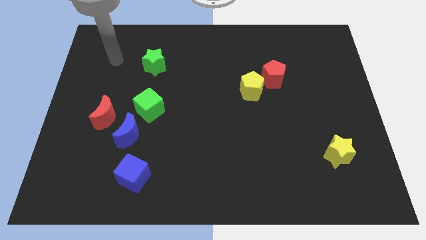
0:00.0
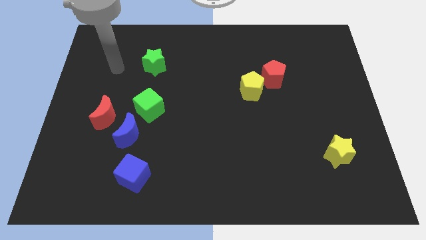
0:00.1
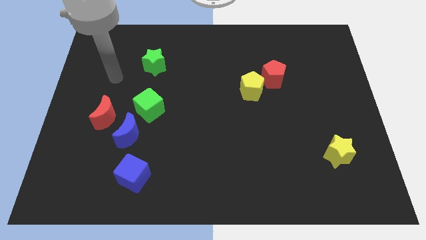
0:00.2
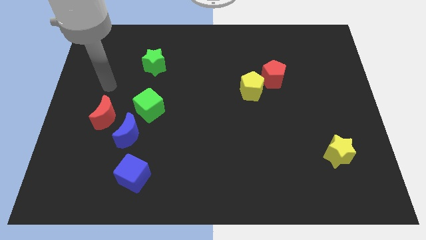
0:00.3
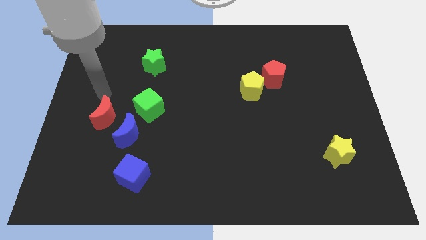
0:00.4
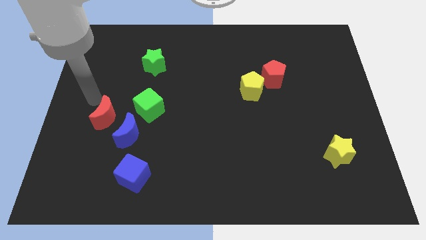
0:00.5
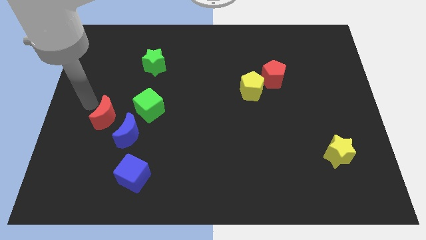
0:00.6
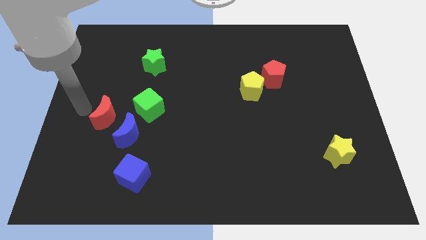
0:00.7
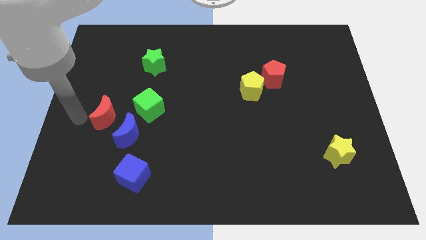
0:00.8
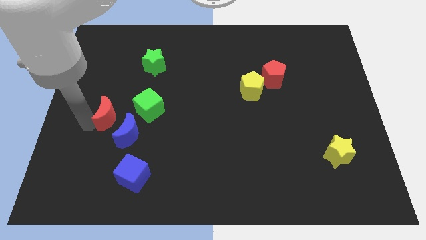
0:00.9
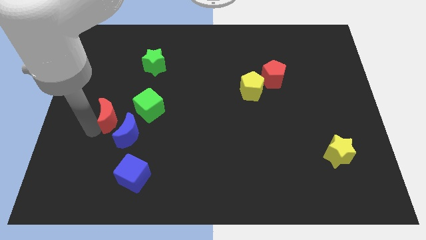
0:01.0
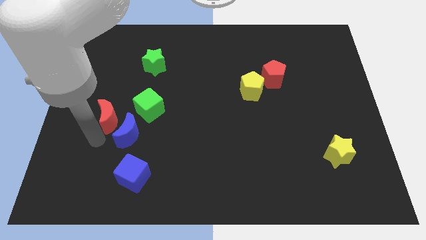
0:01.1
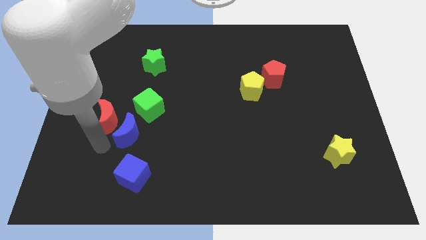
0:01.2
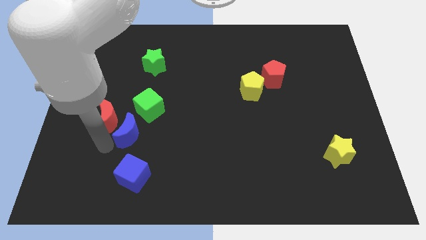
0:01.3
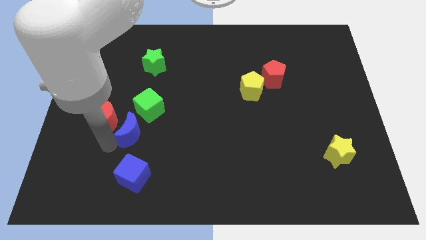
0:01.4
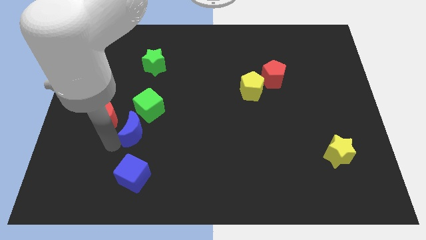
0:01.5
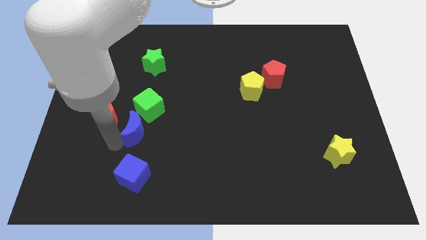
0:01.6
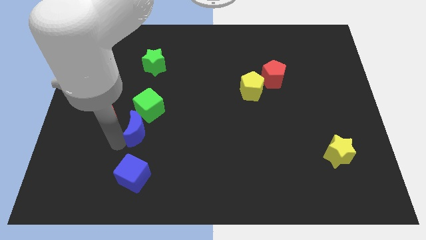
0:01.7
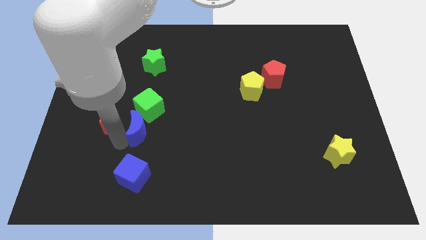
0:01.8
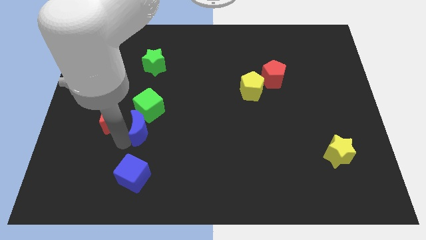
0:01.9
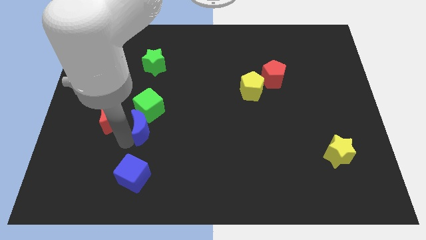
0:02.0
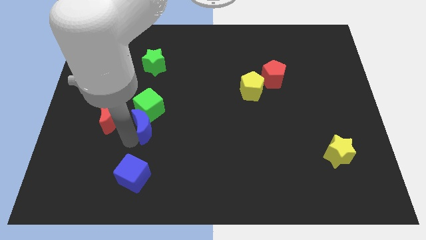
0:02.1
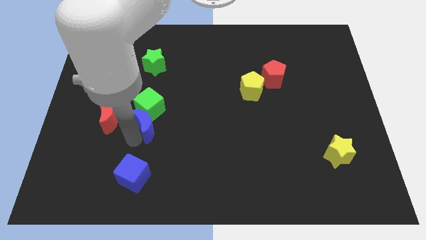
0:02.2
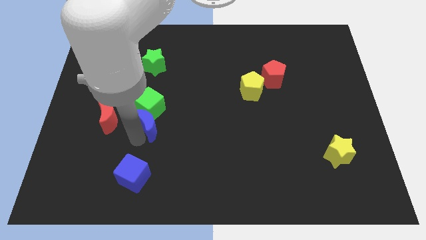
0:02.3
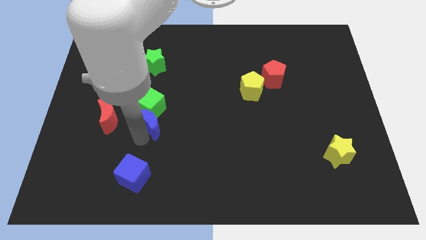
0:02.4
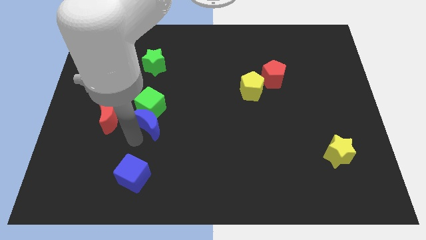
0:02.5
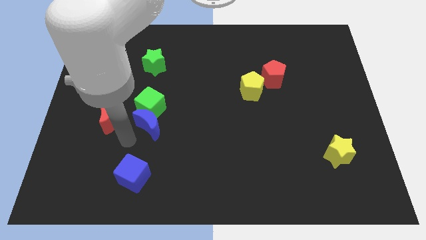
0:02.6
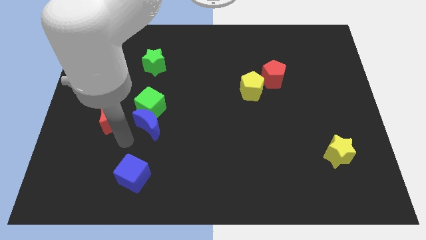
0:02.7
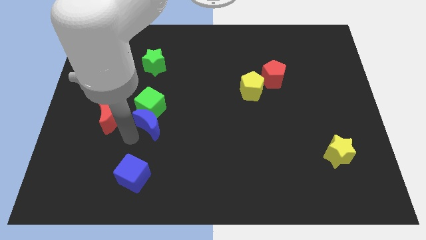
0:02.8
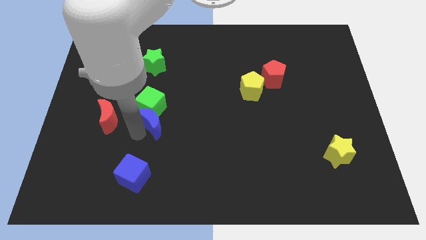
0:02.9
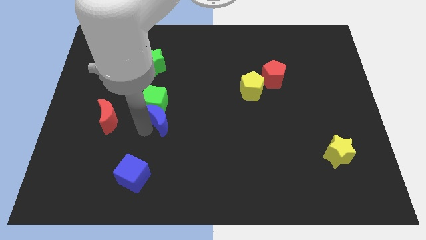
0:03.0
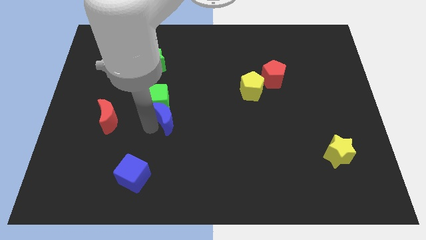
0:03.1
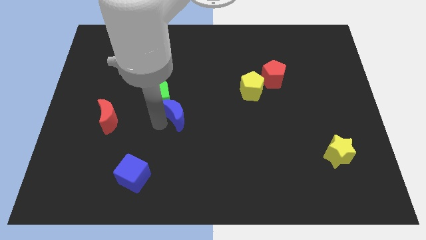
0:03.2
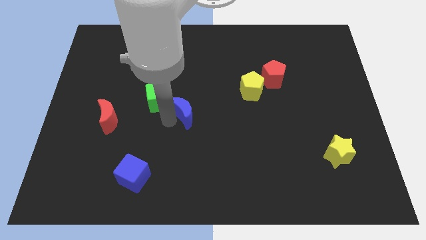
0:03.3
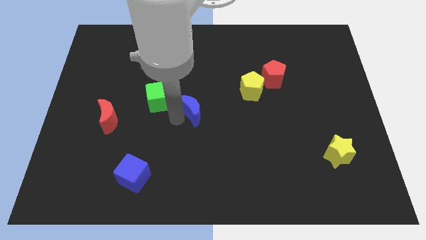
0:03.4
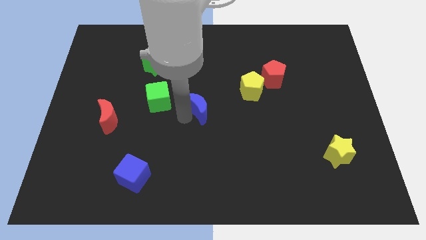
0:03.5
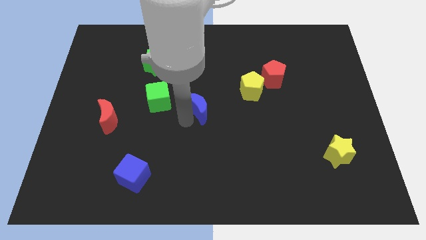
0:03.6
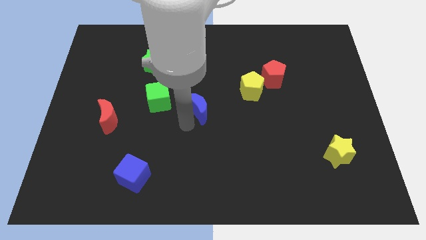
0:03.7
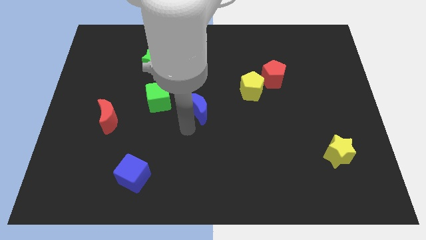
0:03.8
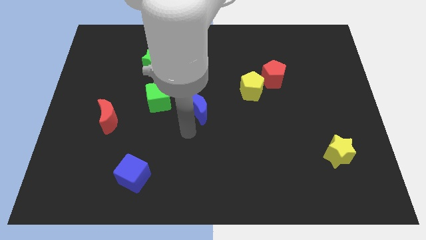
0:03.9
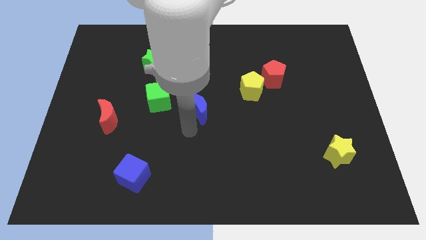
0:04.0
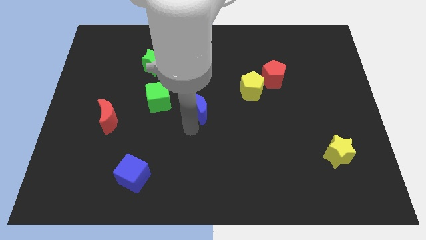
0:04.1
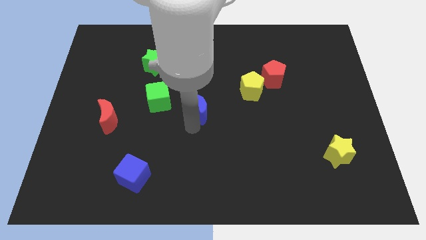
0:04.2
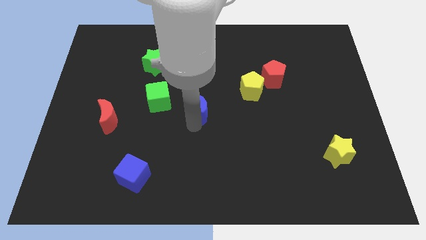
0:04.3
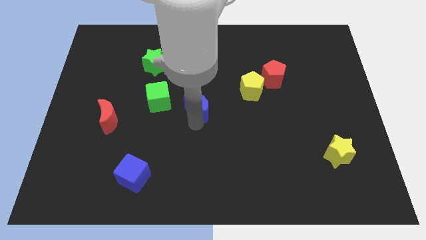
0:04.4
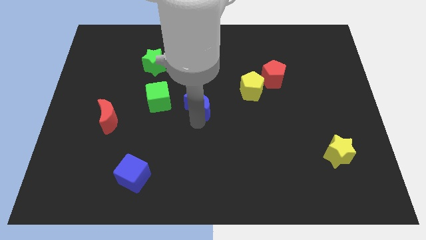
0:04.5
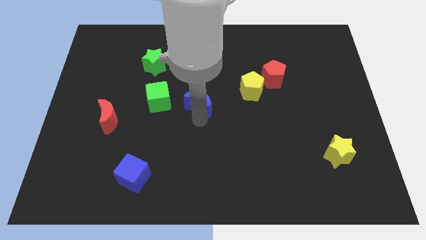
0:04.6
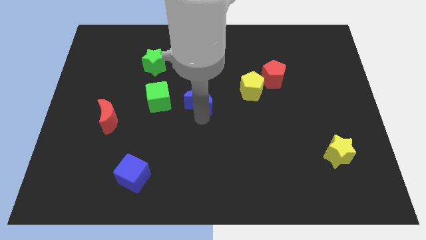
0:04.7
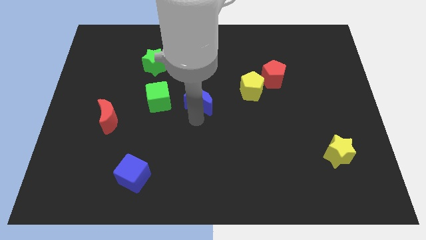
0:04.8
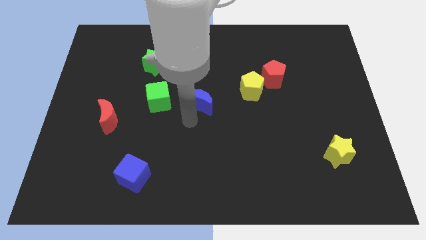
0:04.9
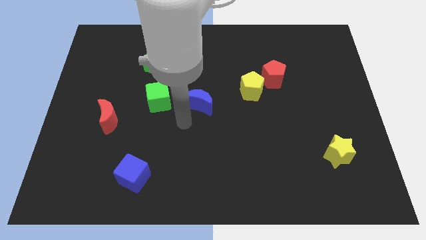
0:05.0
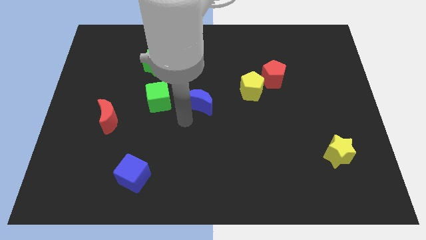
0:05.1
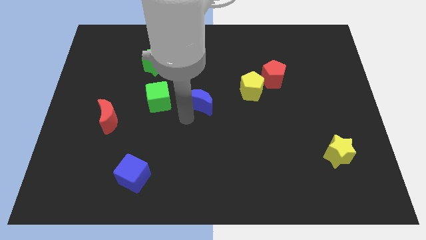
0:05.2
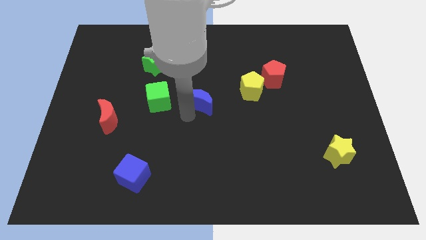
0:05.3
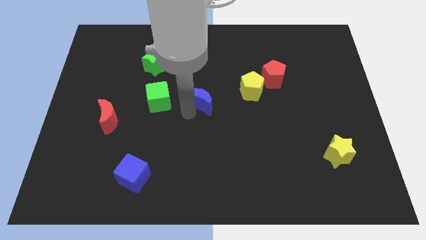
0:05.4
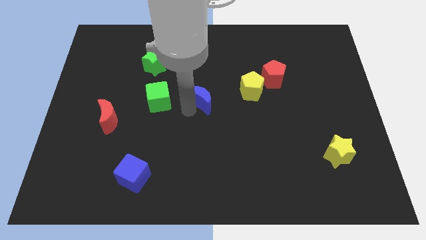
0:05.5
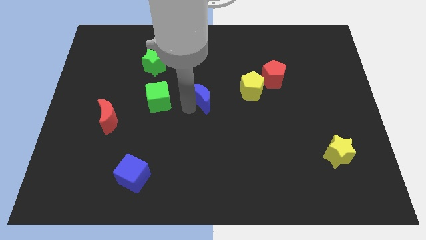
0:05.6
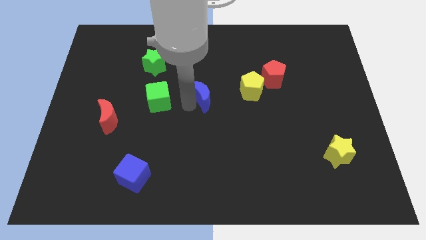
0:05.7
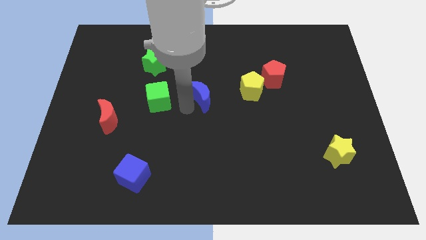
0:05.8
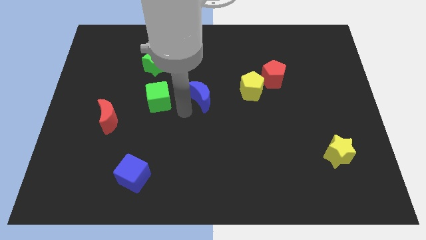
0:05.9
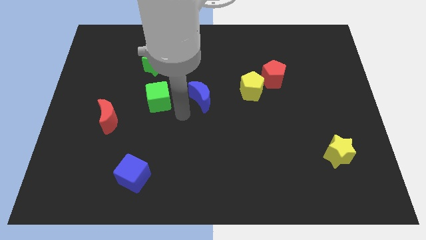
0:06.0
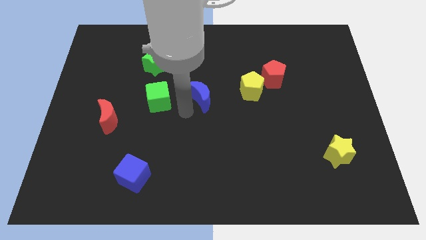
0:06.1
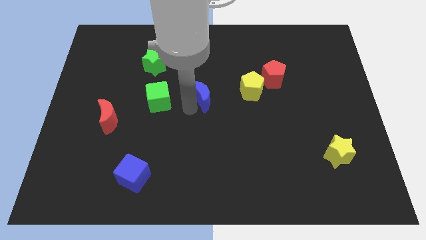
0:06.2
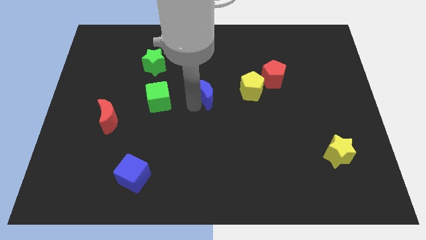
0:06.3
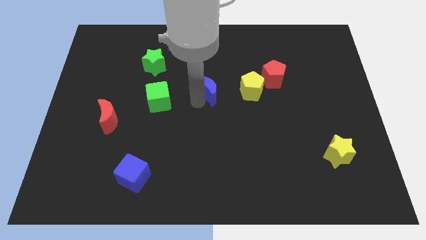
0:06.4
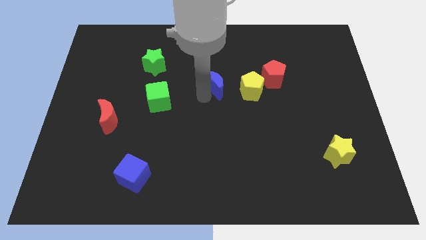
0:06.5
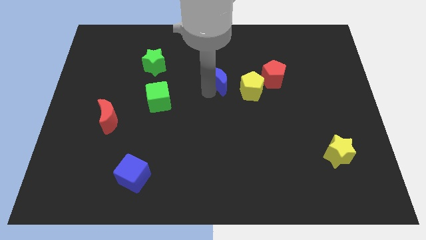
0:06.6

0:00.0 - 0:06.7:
slide the blue moon to the top left side of the yellow pentagon

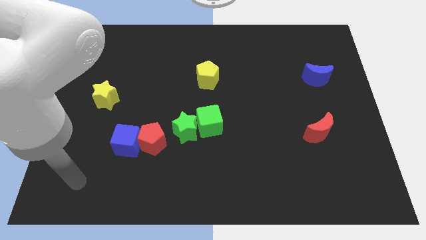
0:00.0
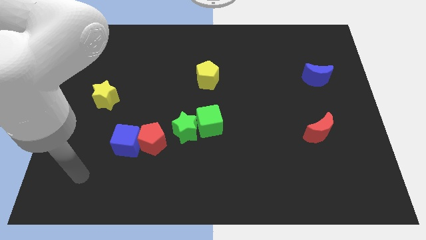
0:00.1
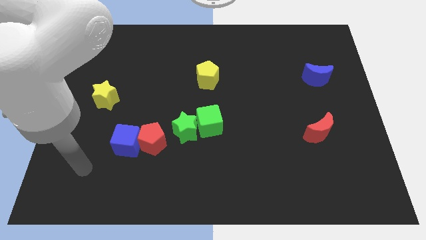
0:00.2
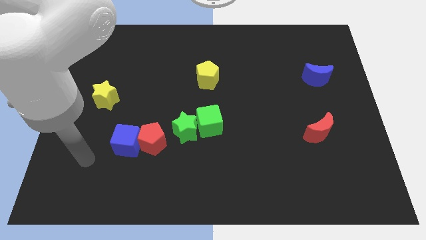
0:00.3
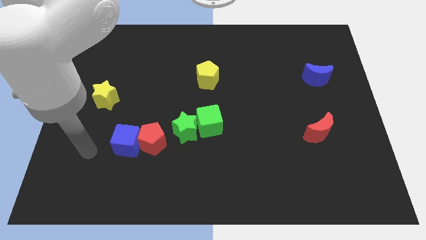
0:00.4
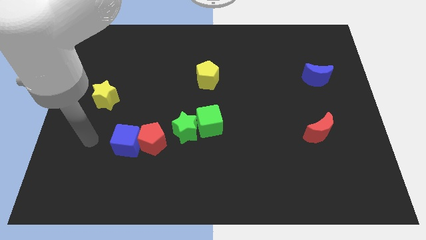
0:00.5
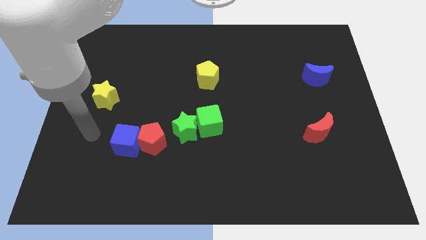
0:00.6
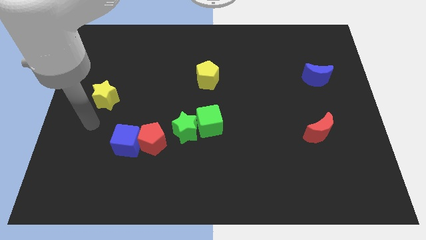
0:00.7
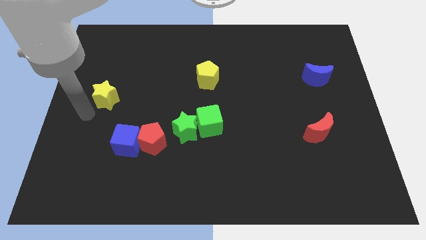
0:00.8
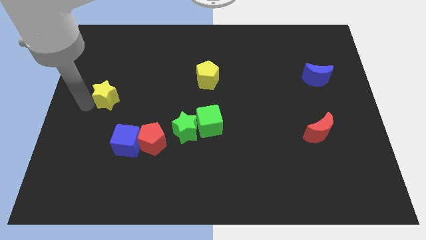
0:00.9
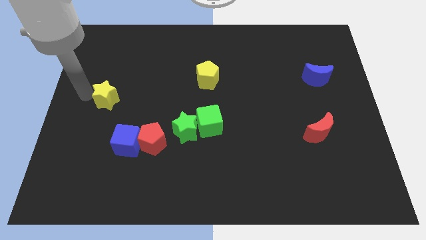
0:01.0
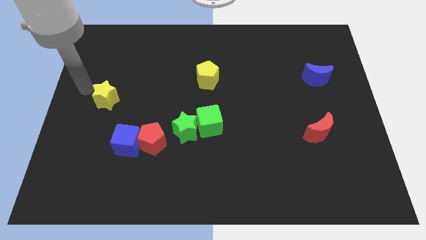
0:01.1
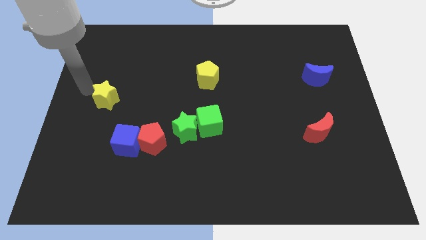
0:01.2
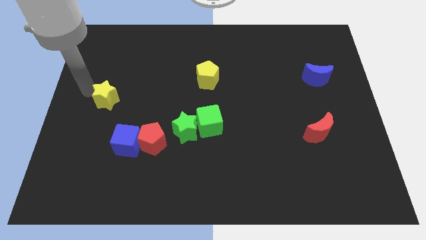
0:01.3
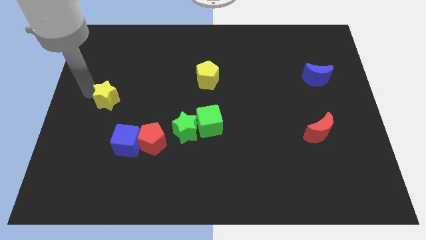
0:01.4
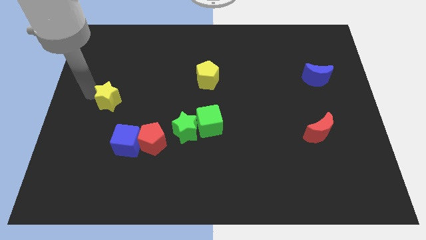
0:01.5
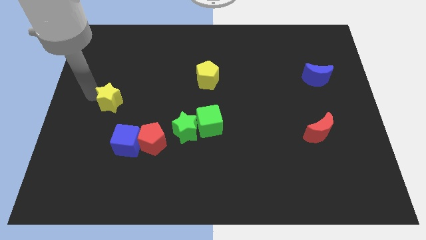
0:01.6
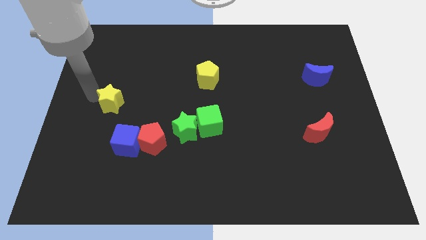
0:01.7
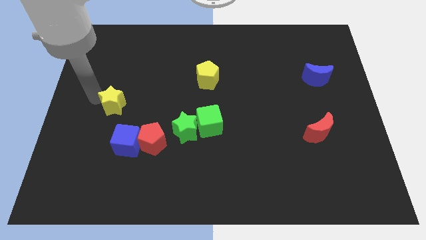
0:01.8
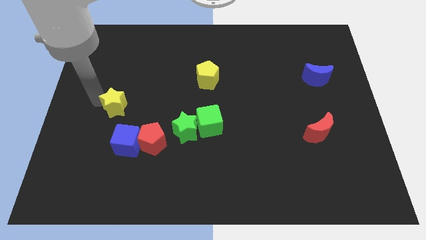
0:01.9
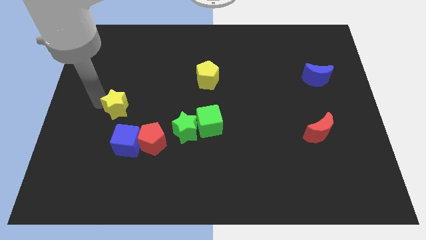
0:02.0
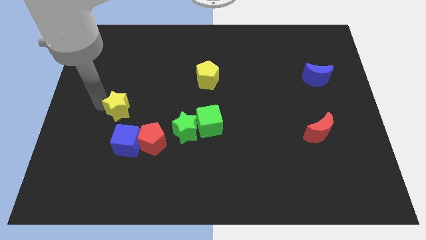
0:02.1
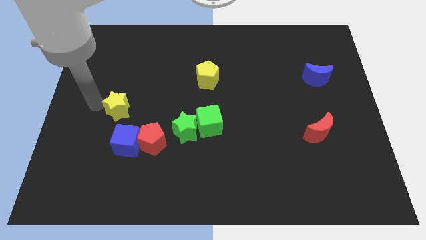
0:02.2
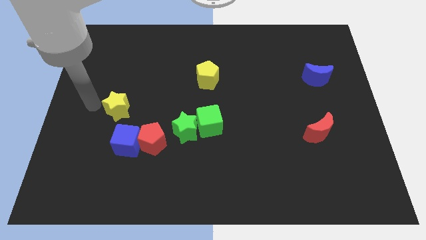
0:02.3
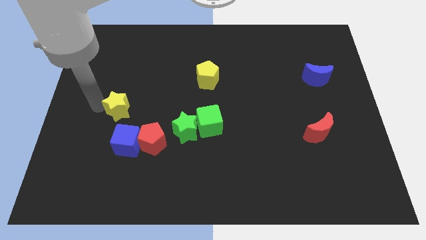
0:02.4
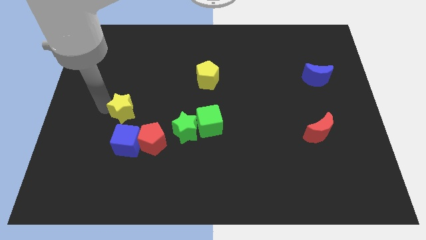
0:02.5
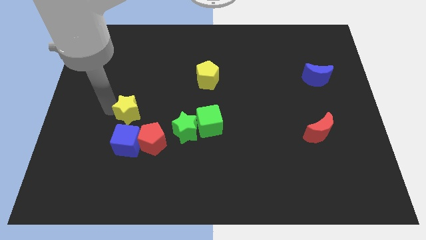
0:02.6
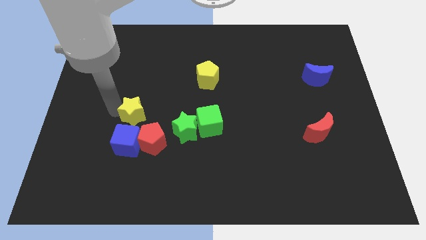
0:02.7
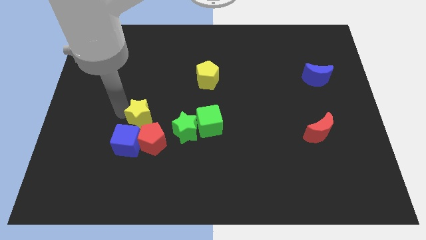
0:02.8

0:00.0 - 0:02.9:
move the yellow star left of the green cube
